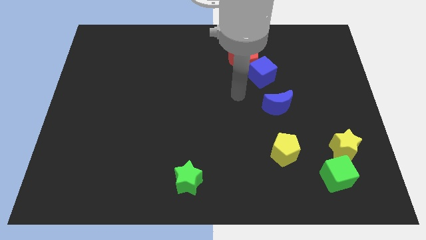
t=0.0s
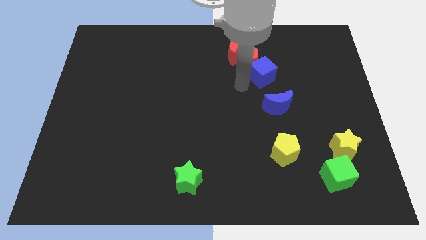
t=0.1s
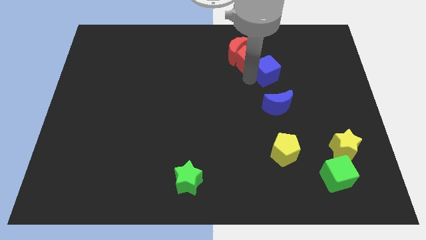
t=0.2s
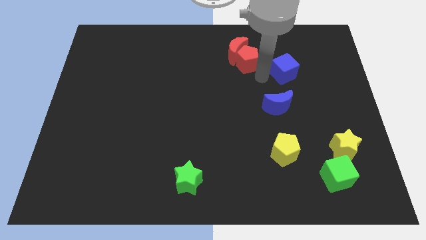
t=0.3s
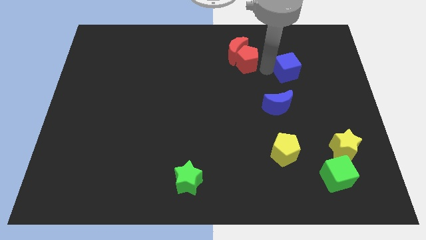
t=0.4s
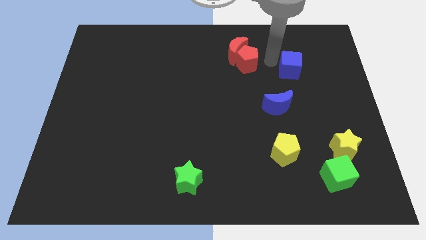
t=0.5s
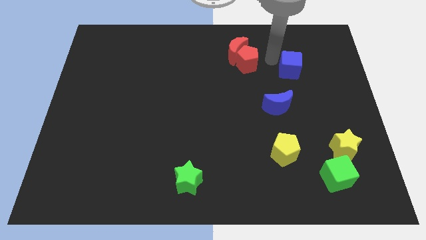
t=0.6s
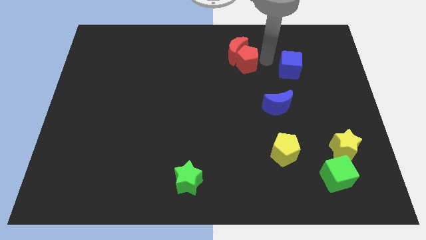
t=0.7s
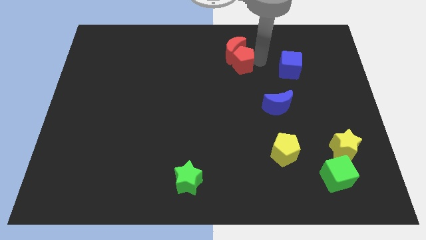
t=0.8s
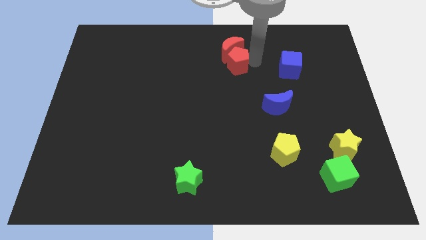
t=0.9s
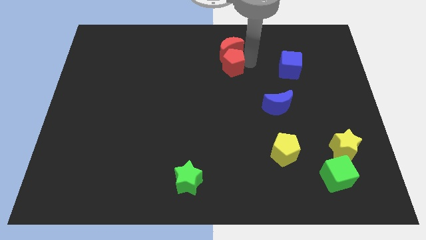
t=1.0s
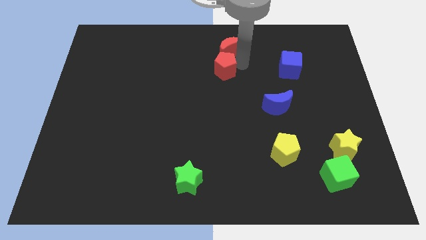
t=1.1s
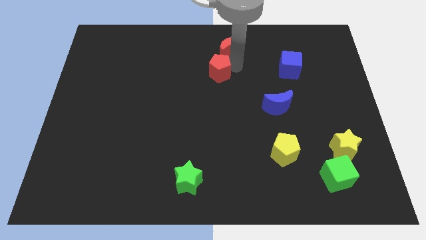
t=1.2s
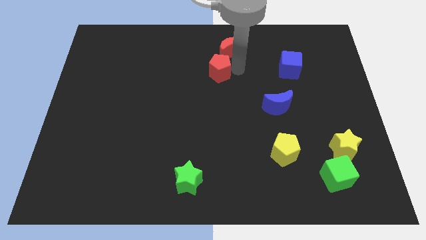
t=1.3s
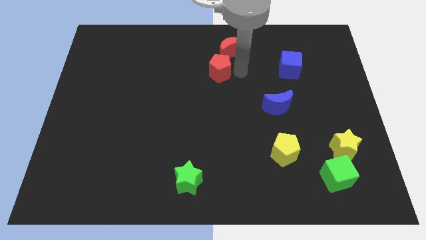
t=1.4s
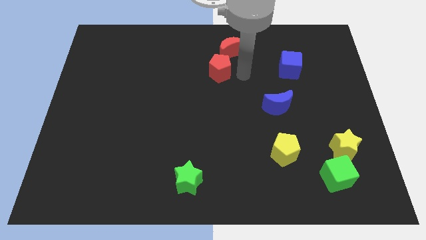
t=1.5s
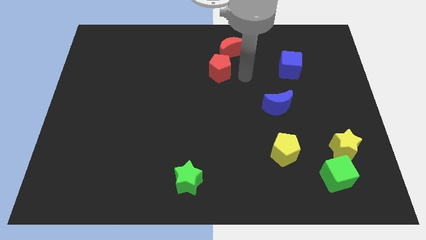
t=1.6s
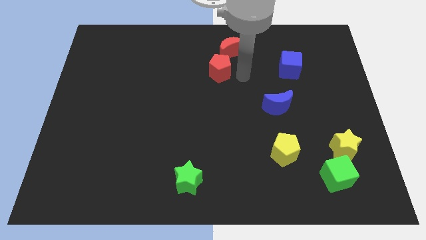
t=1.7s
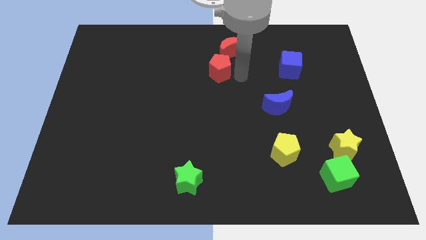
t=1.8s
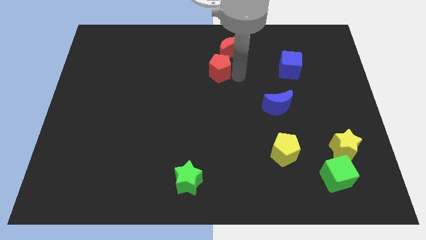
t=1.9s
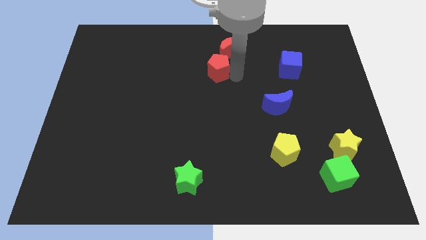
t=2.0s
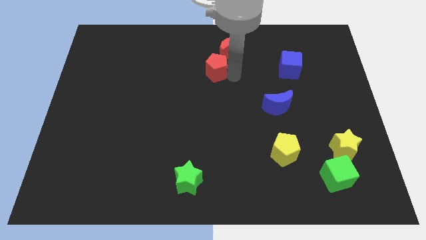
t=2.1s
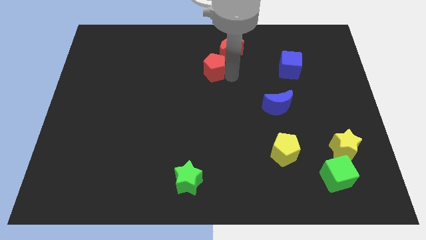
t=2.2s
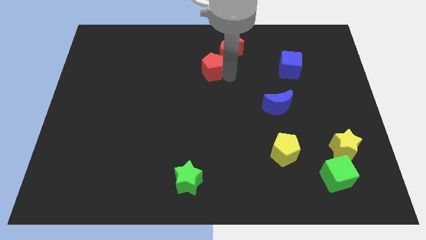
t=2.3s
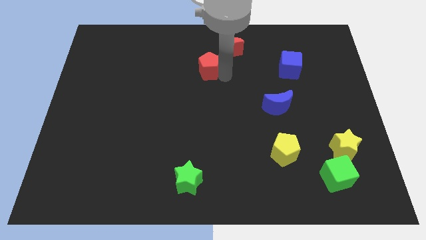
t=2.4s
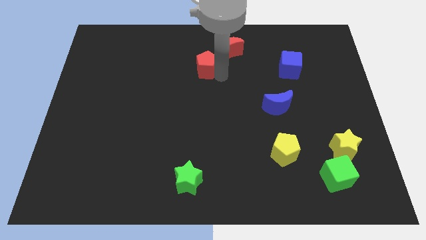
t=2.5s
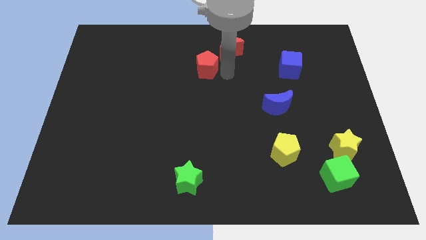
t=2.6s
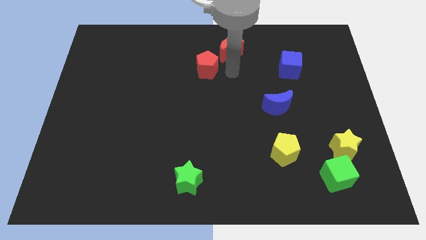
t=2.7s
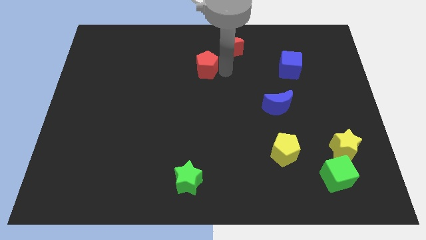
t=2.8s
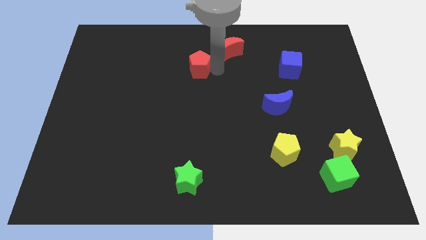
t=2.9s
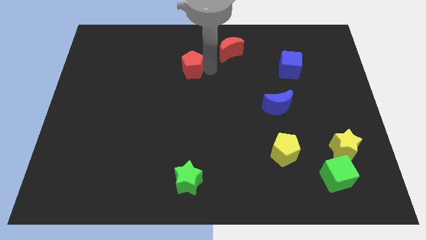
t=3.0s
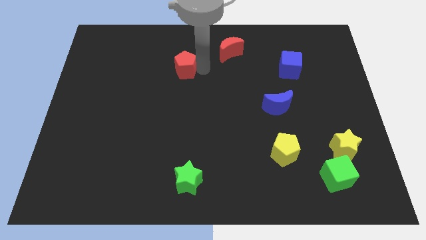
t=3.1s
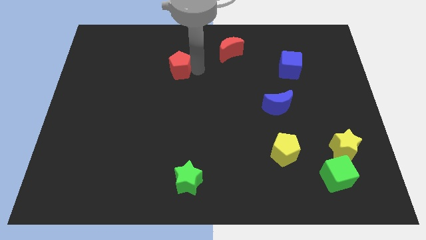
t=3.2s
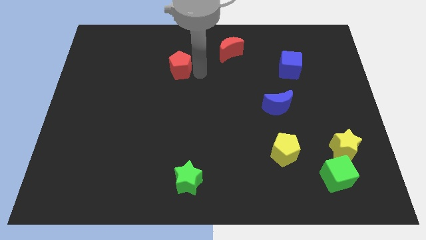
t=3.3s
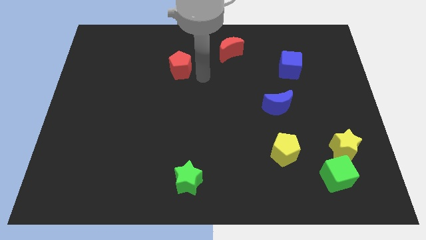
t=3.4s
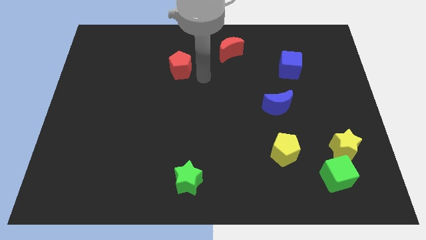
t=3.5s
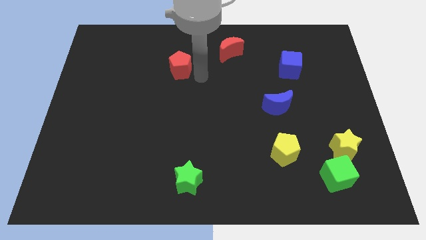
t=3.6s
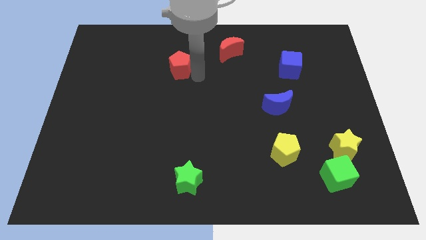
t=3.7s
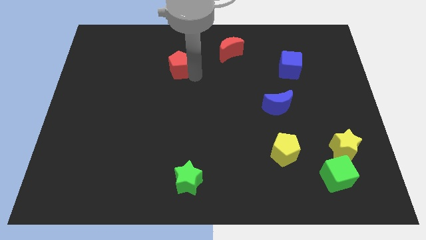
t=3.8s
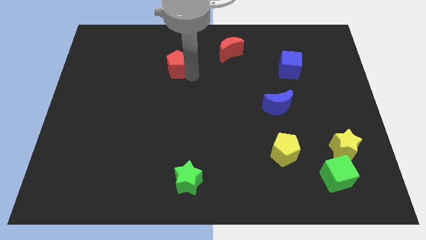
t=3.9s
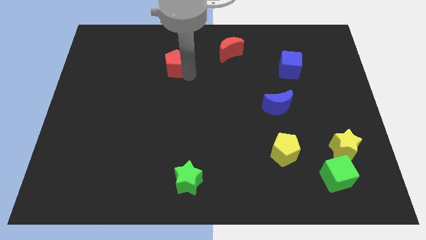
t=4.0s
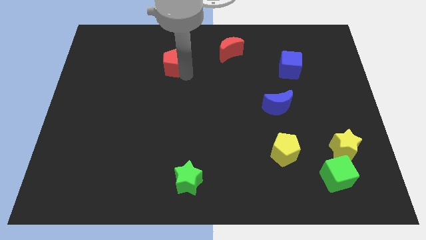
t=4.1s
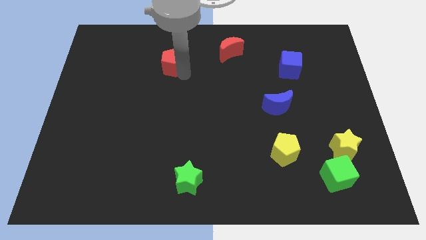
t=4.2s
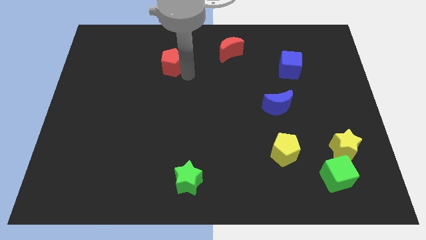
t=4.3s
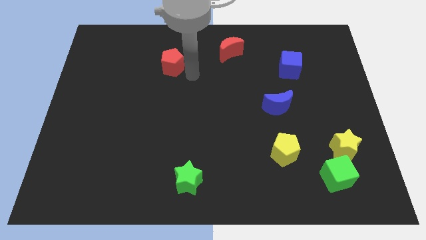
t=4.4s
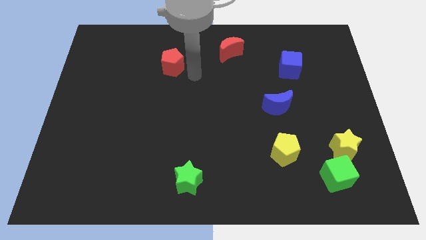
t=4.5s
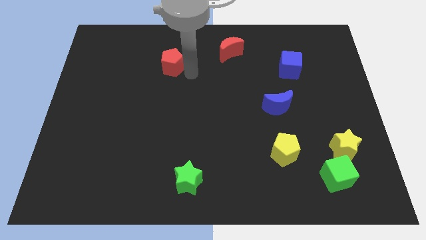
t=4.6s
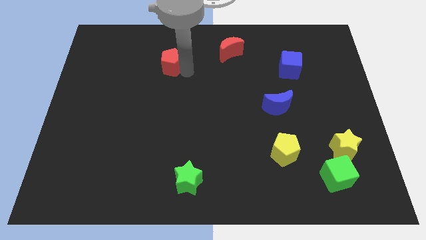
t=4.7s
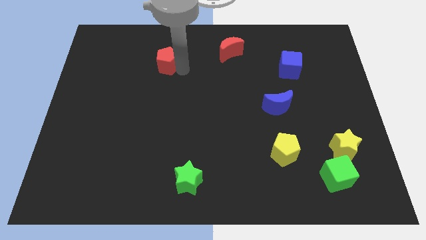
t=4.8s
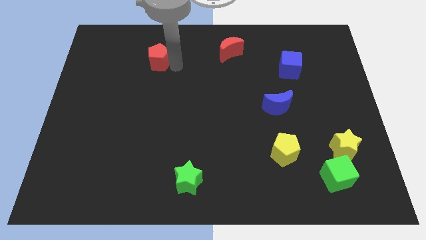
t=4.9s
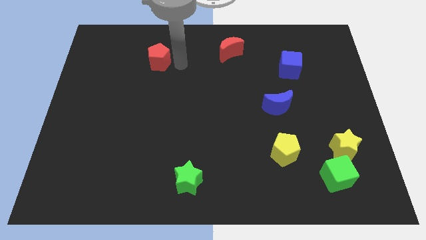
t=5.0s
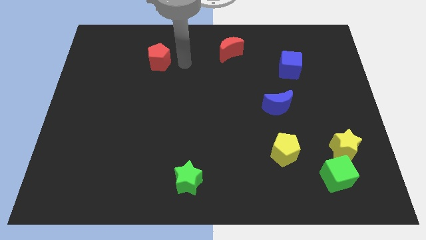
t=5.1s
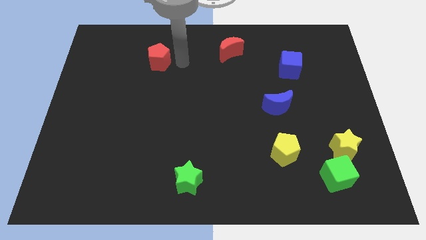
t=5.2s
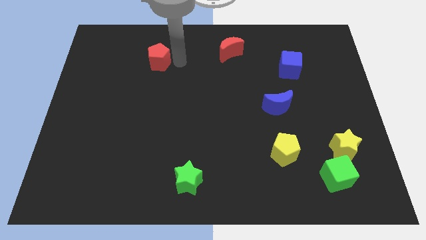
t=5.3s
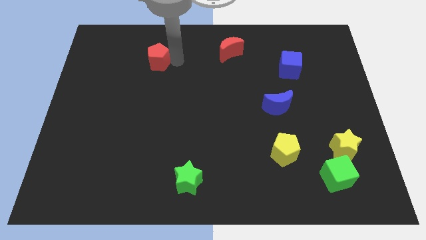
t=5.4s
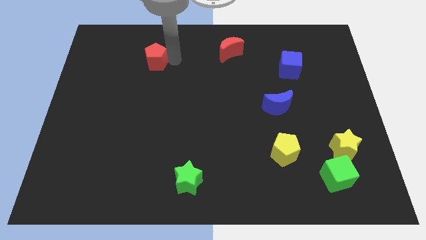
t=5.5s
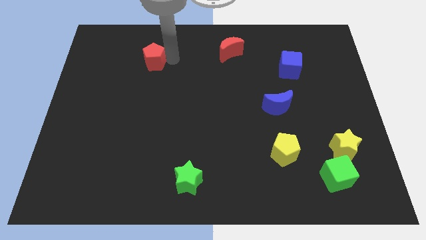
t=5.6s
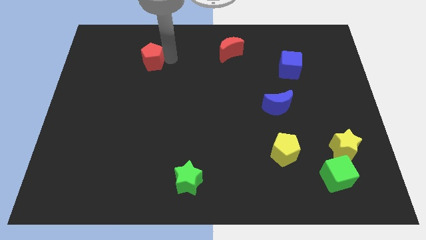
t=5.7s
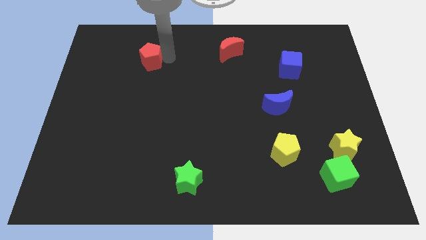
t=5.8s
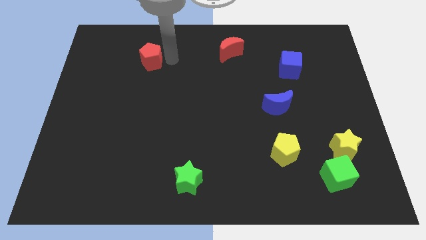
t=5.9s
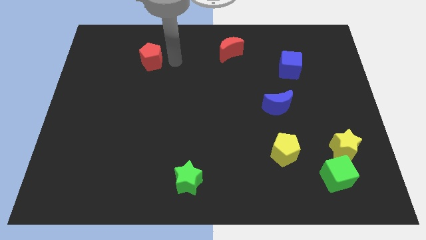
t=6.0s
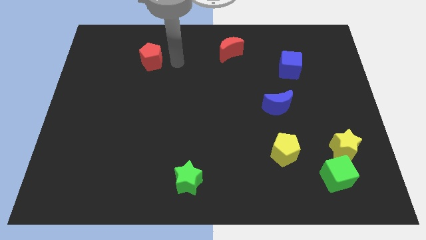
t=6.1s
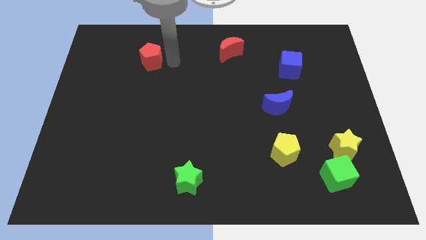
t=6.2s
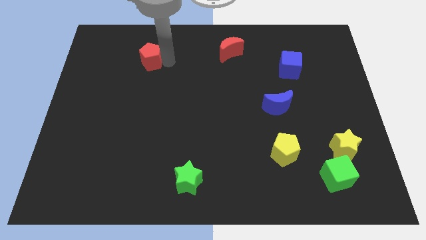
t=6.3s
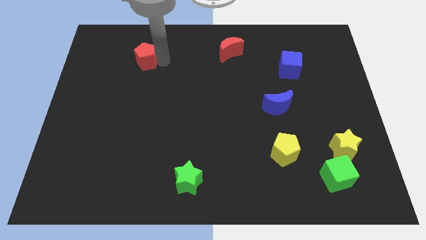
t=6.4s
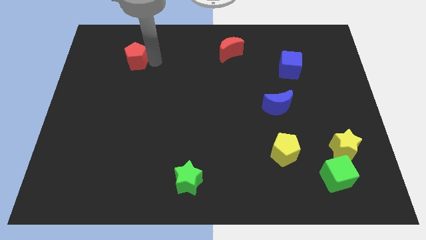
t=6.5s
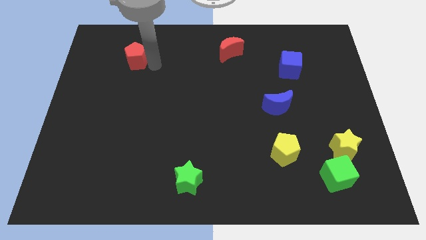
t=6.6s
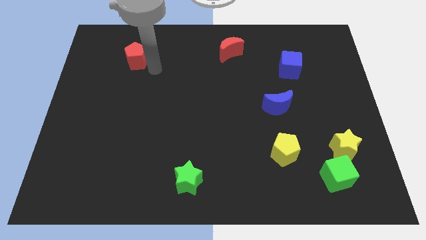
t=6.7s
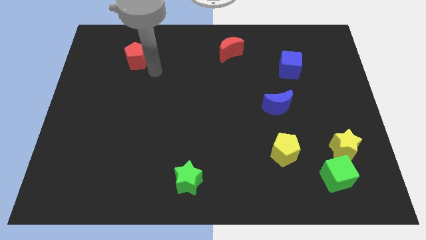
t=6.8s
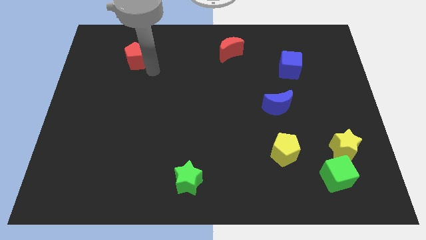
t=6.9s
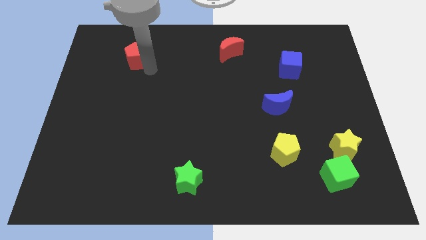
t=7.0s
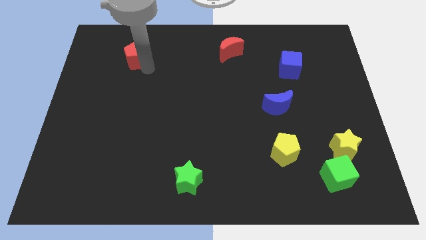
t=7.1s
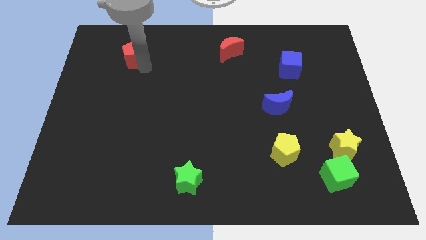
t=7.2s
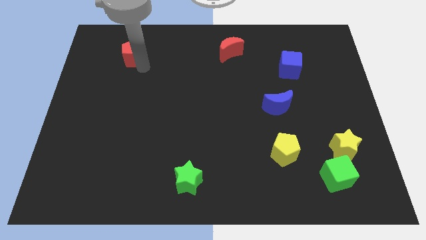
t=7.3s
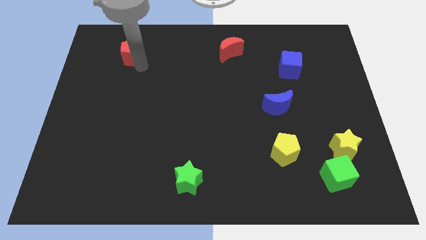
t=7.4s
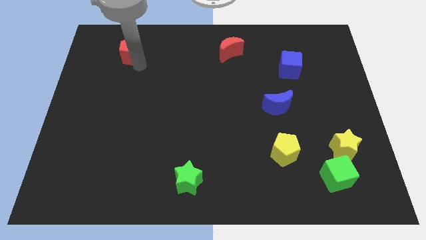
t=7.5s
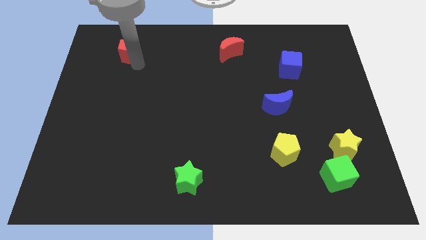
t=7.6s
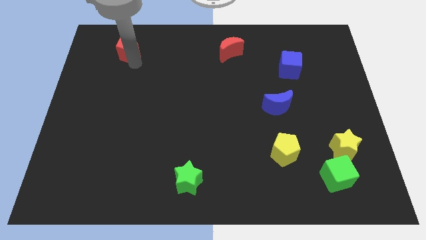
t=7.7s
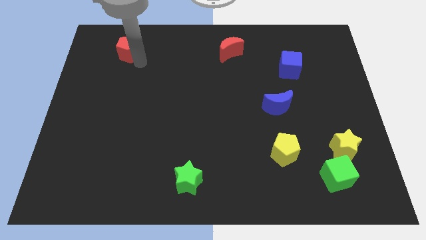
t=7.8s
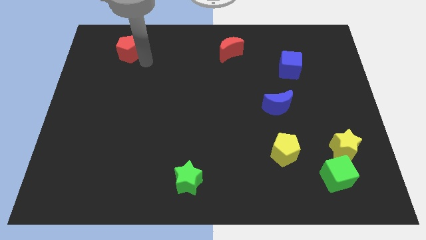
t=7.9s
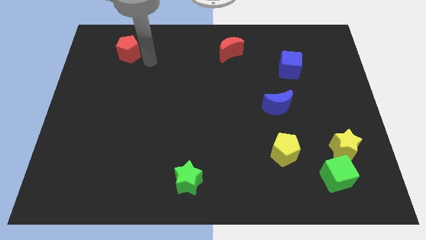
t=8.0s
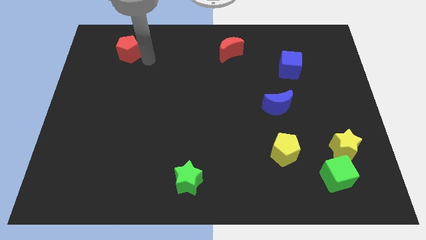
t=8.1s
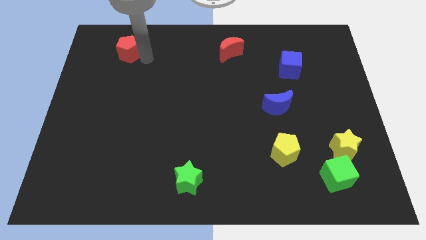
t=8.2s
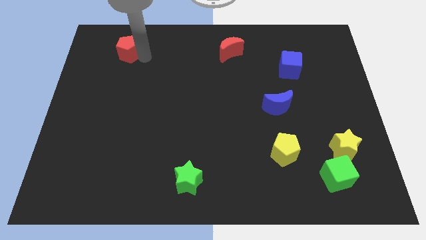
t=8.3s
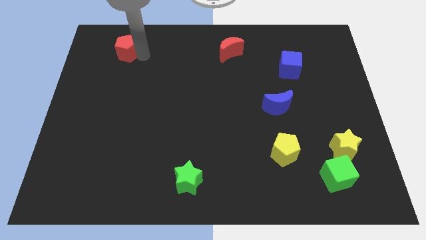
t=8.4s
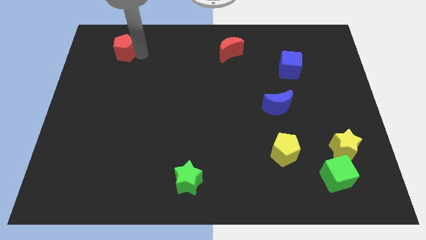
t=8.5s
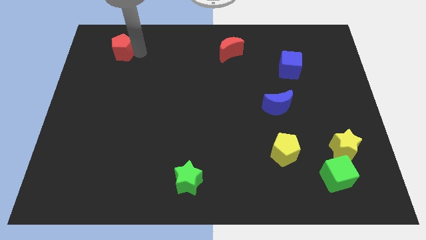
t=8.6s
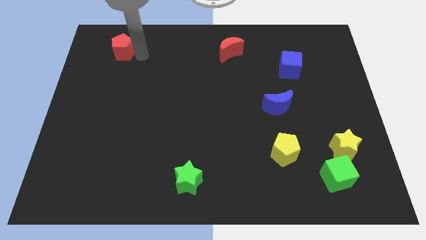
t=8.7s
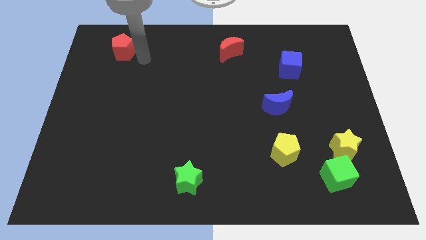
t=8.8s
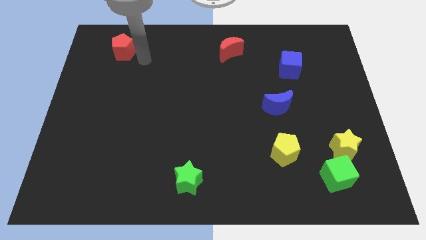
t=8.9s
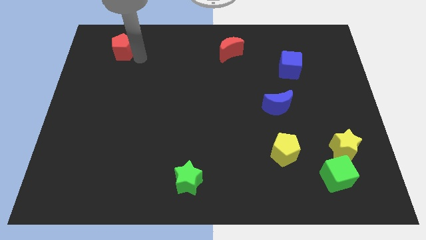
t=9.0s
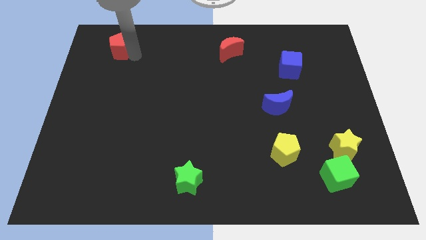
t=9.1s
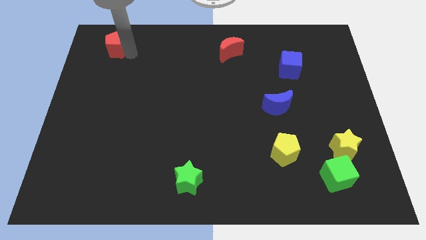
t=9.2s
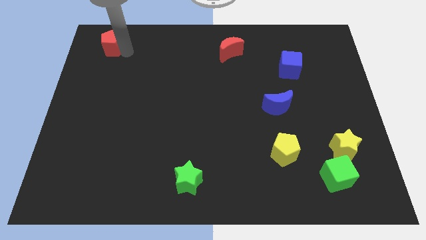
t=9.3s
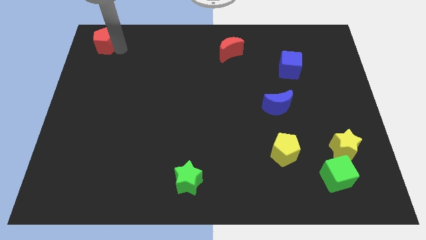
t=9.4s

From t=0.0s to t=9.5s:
slide the red pentagon to the upper left corner
